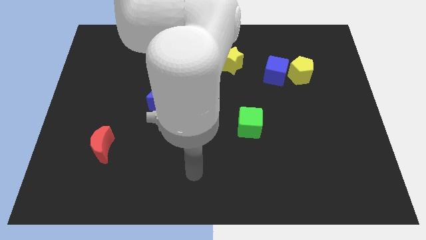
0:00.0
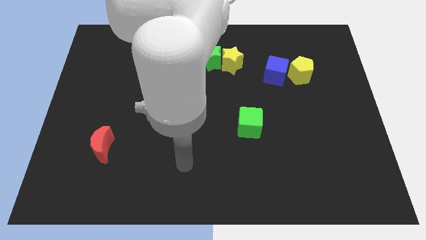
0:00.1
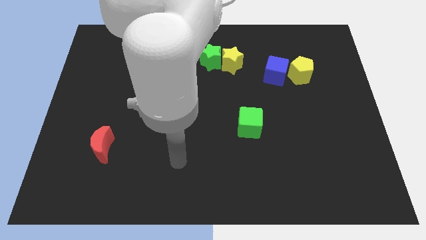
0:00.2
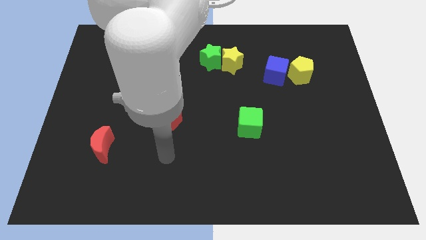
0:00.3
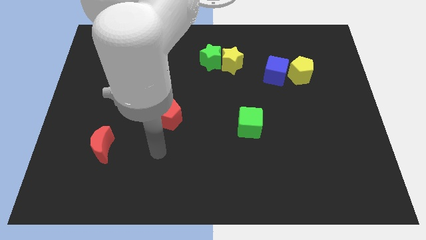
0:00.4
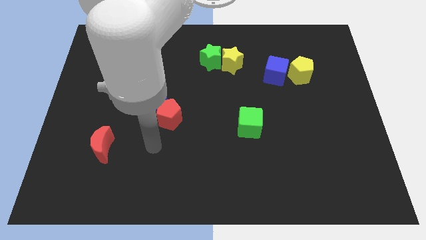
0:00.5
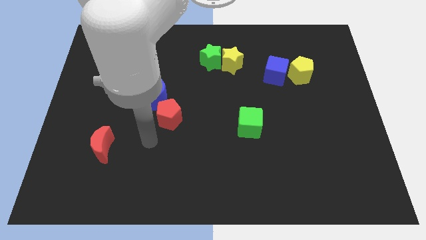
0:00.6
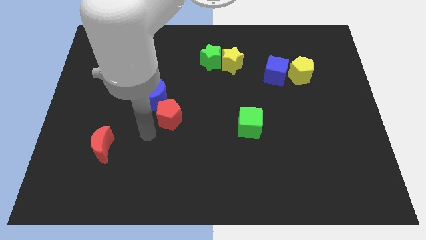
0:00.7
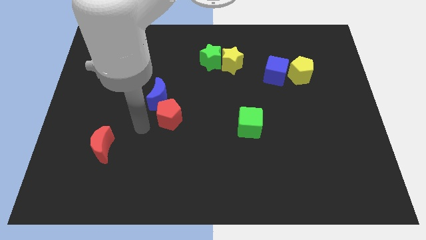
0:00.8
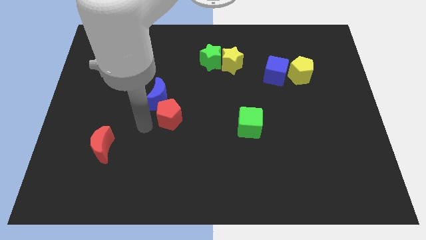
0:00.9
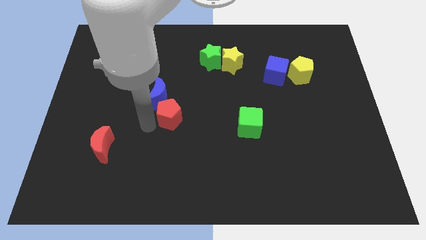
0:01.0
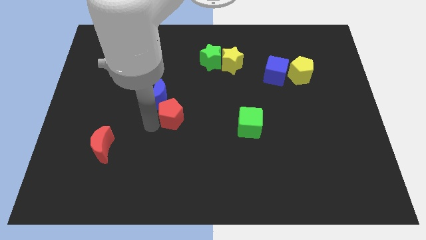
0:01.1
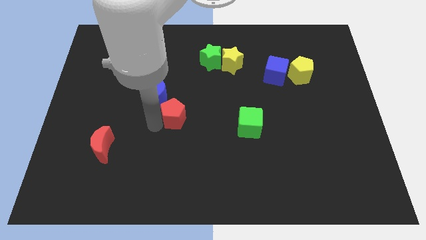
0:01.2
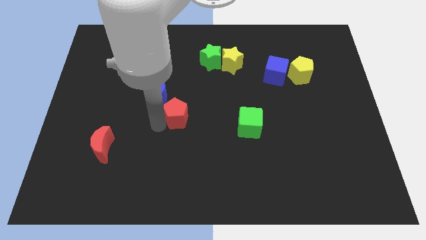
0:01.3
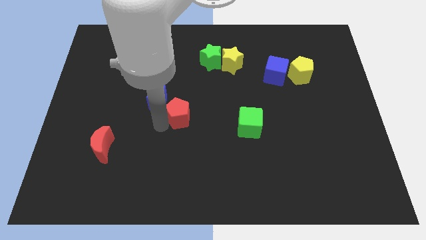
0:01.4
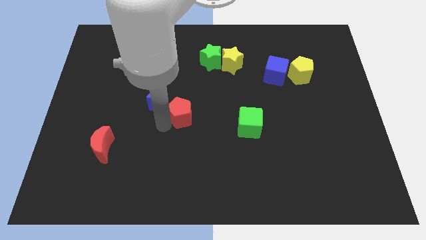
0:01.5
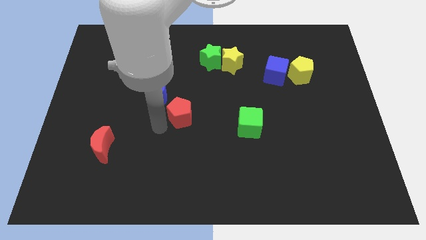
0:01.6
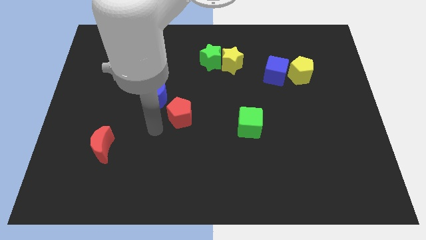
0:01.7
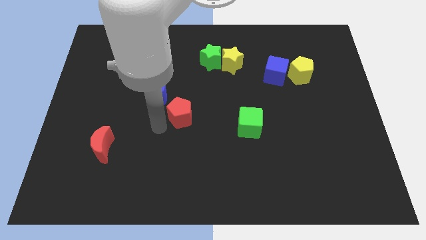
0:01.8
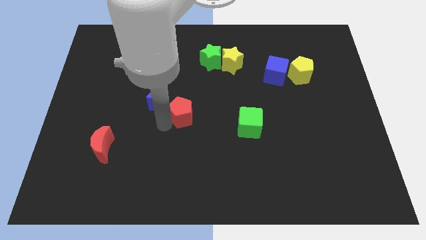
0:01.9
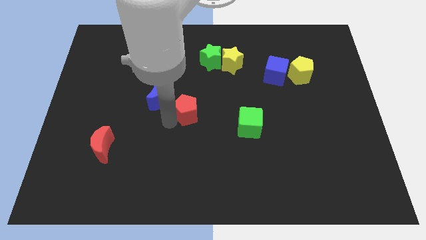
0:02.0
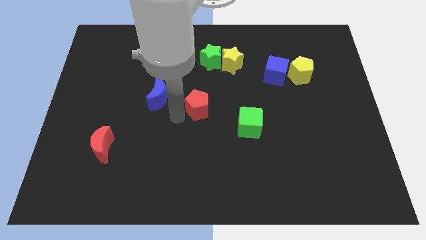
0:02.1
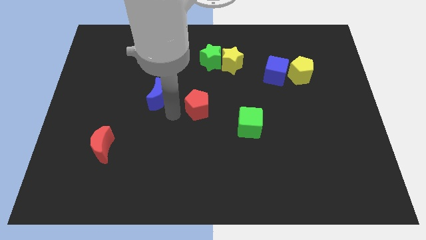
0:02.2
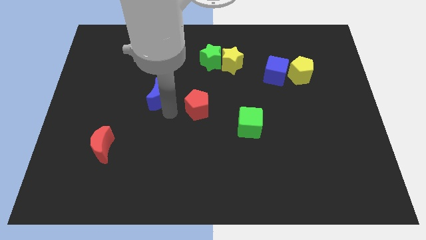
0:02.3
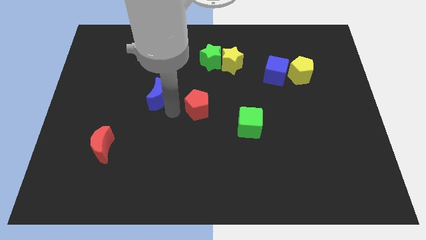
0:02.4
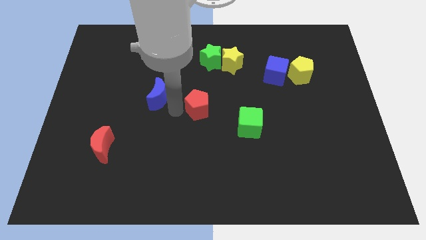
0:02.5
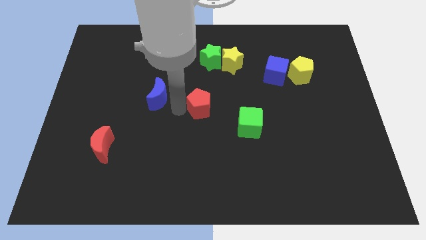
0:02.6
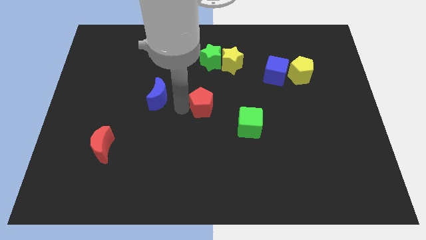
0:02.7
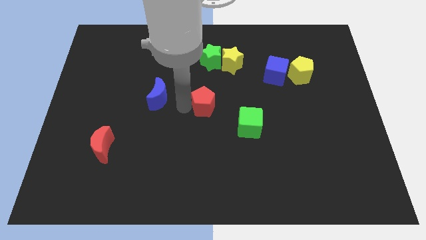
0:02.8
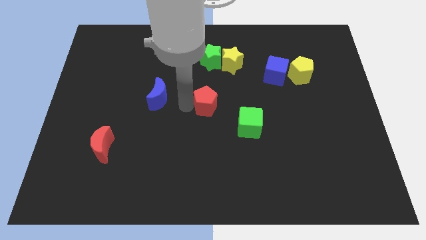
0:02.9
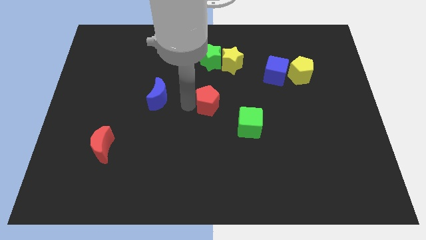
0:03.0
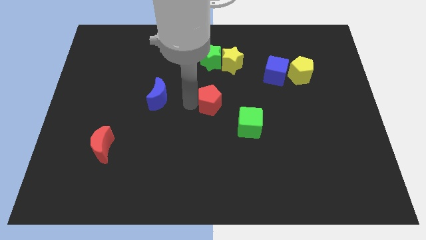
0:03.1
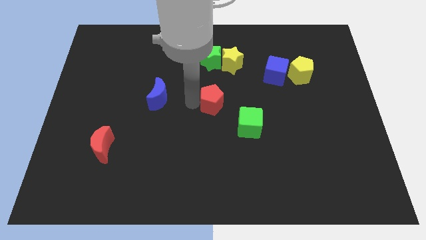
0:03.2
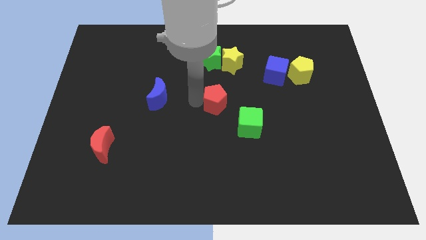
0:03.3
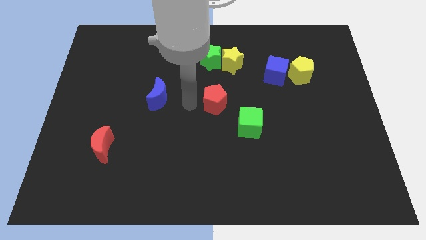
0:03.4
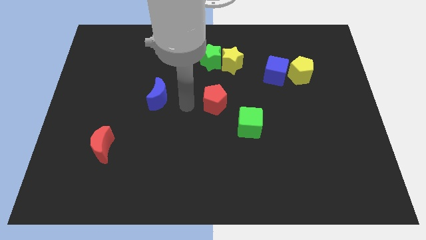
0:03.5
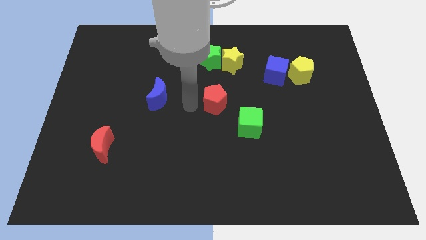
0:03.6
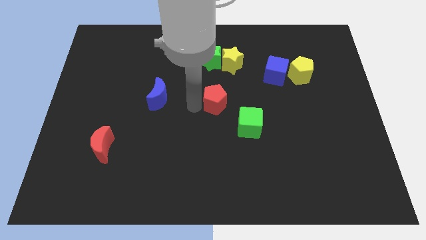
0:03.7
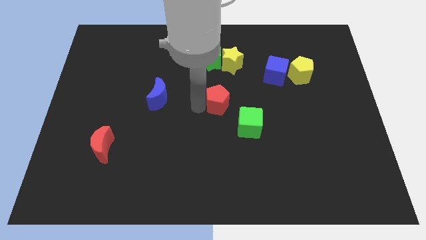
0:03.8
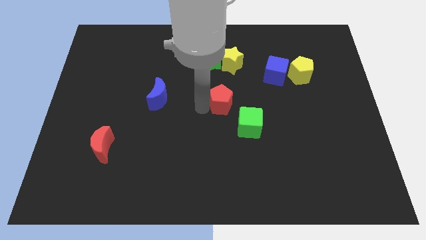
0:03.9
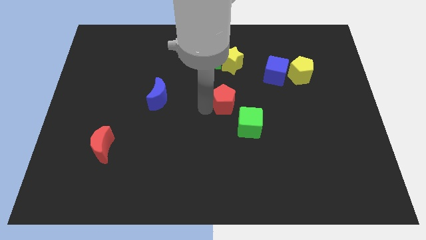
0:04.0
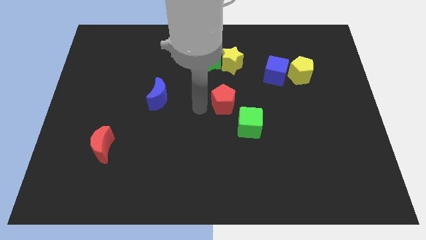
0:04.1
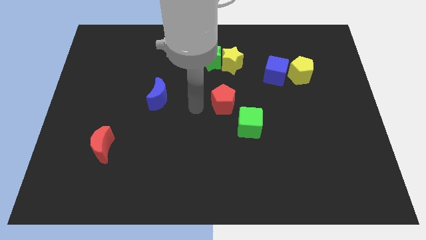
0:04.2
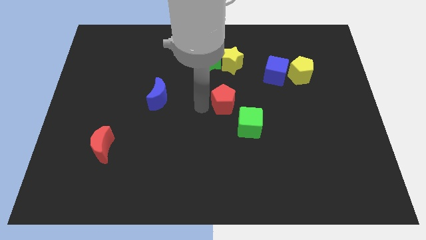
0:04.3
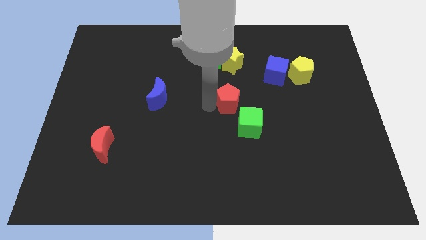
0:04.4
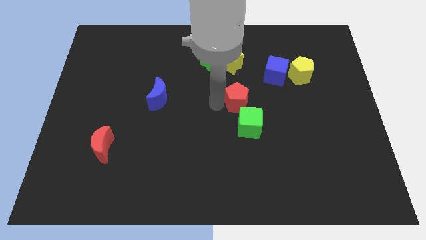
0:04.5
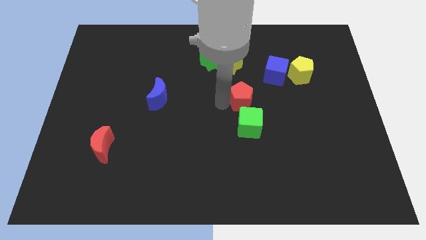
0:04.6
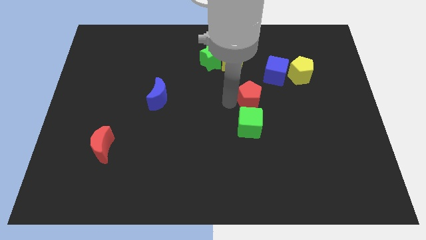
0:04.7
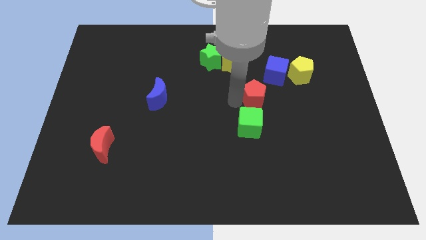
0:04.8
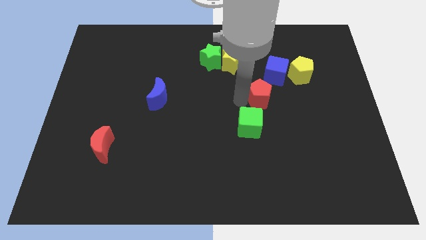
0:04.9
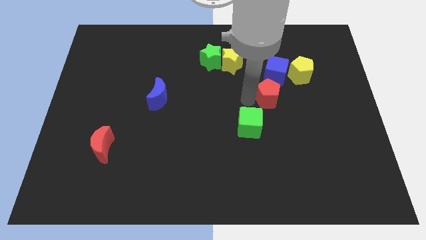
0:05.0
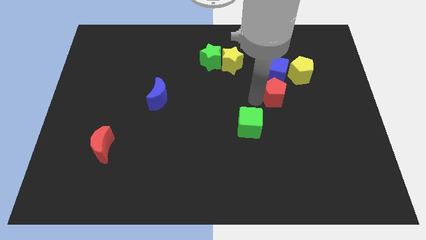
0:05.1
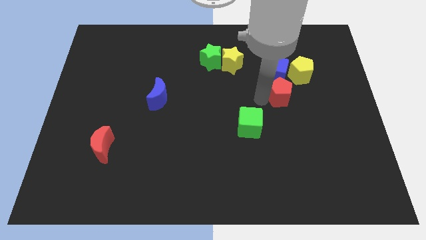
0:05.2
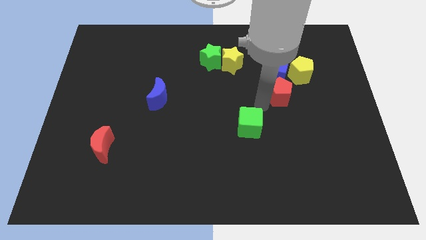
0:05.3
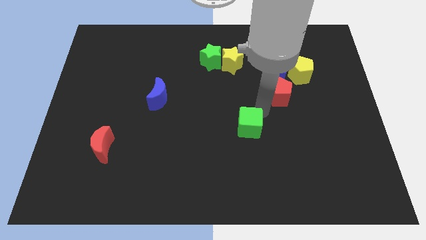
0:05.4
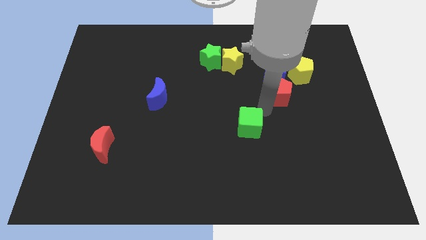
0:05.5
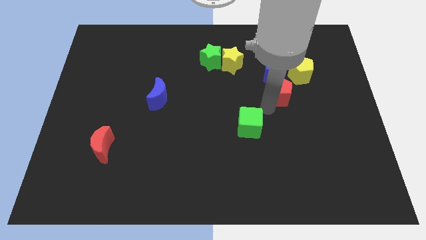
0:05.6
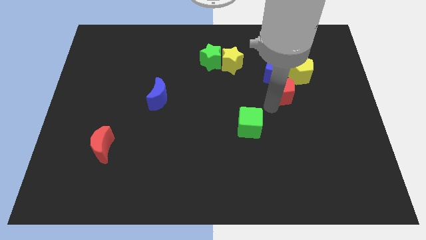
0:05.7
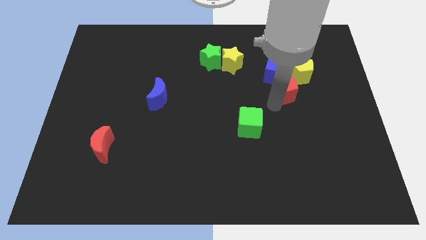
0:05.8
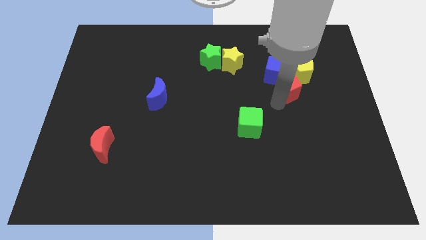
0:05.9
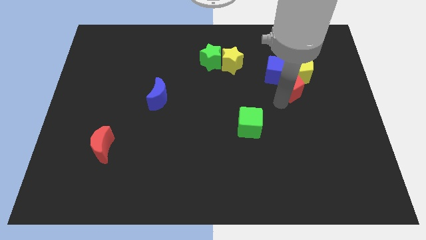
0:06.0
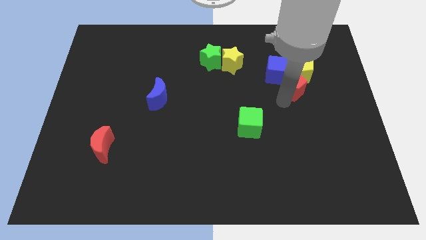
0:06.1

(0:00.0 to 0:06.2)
move the red pentagon close to the yellow pentagon
